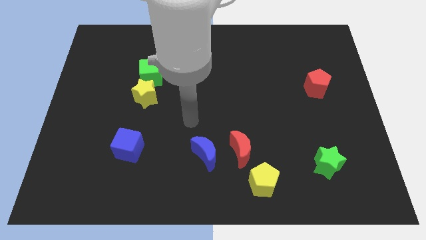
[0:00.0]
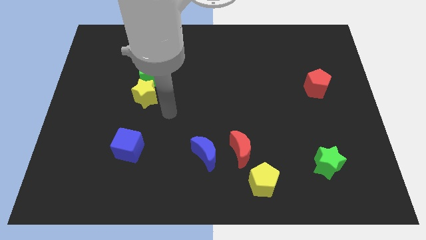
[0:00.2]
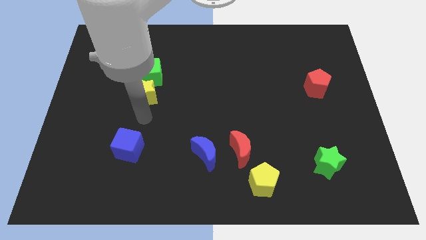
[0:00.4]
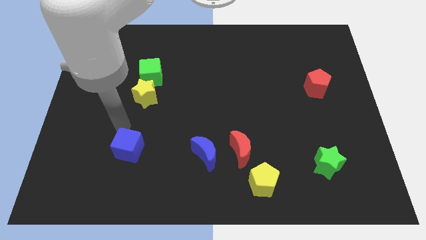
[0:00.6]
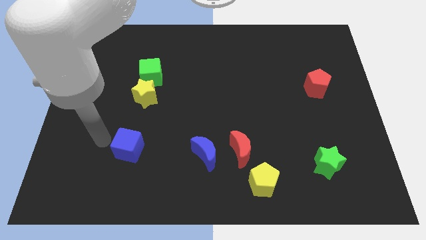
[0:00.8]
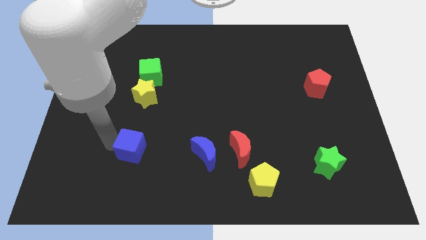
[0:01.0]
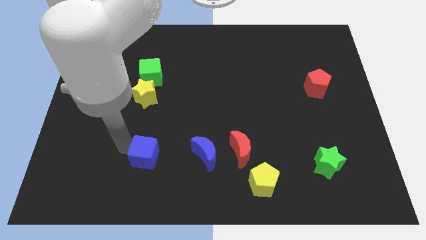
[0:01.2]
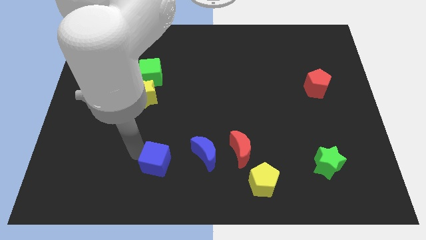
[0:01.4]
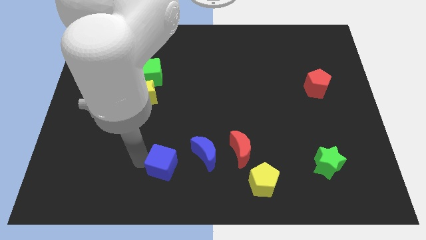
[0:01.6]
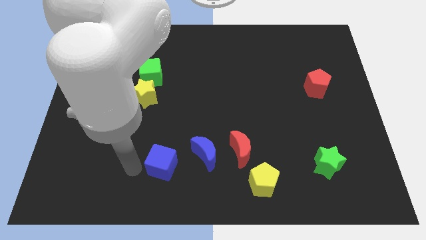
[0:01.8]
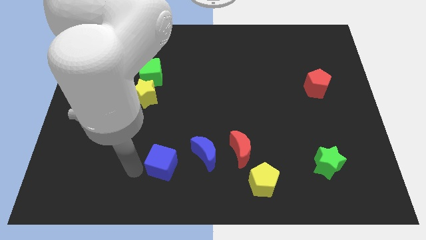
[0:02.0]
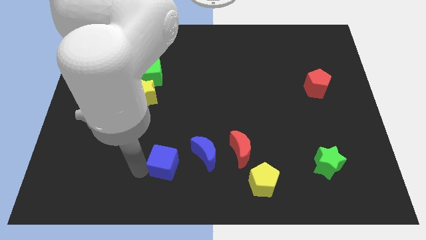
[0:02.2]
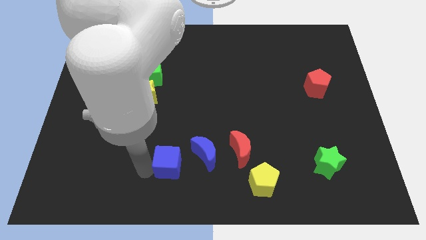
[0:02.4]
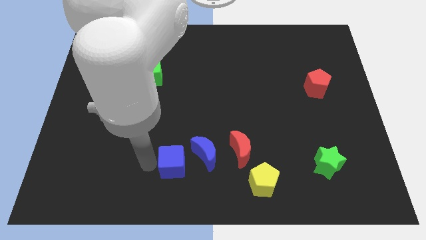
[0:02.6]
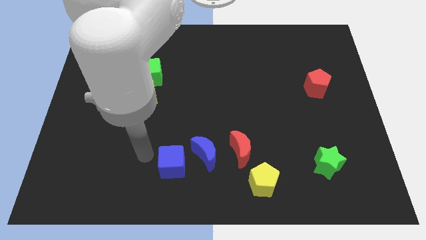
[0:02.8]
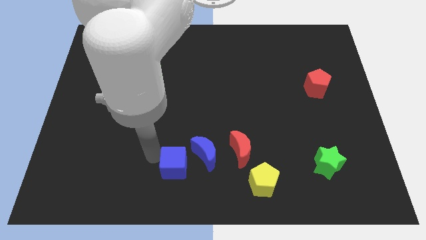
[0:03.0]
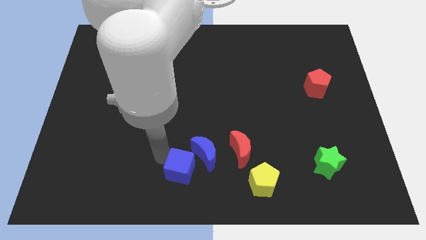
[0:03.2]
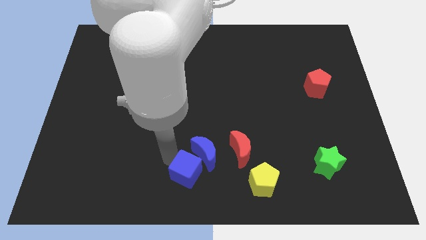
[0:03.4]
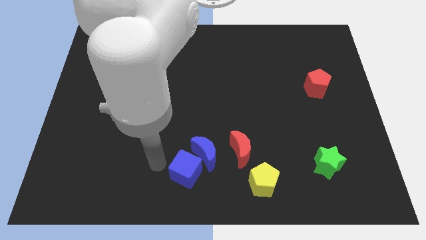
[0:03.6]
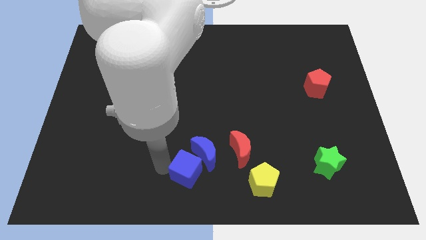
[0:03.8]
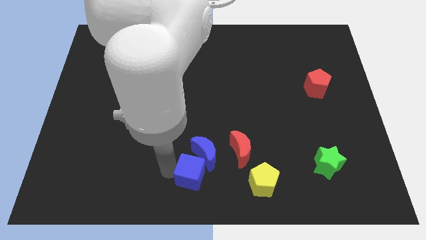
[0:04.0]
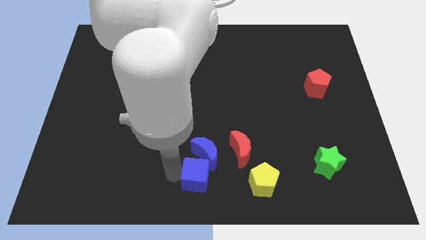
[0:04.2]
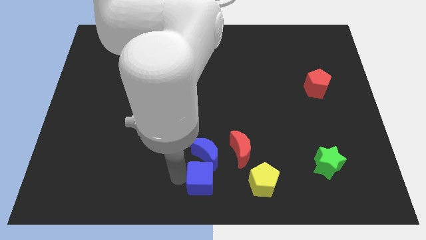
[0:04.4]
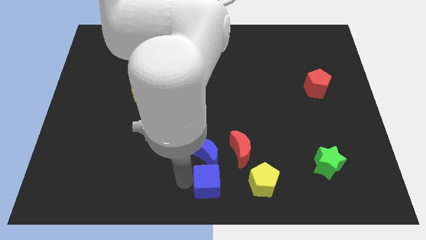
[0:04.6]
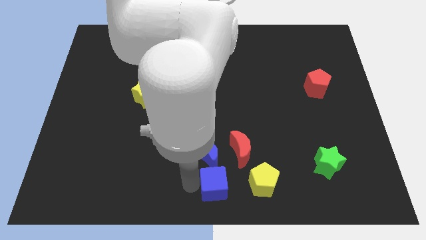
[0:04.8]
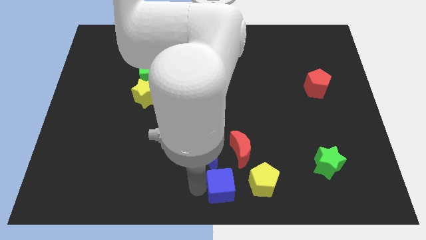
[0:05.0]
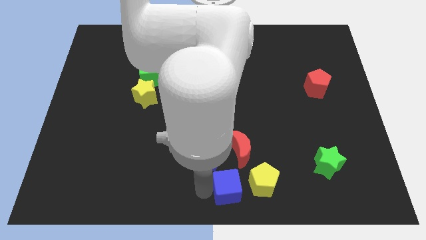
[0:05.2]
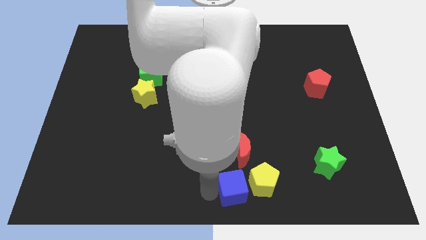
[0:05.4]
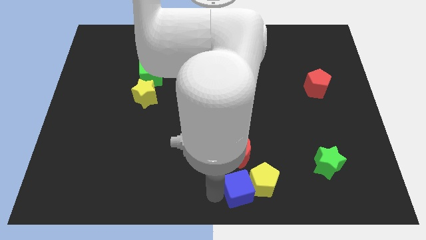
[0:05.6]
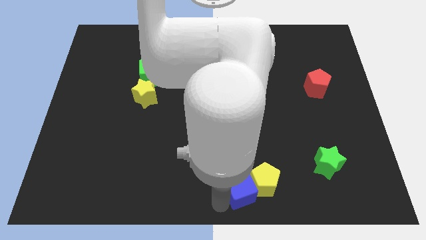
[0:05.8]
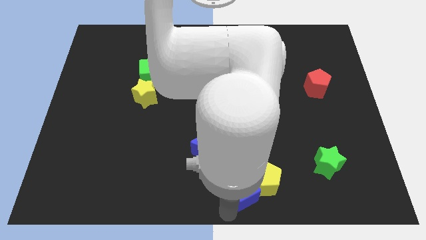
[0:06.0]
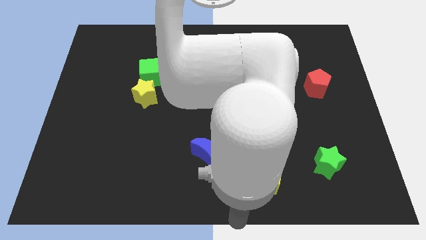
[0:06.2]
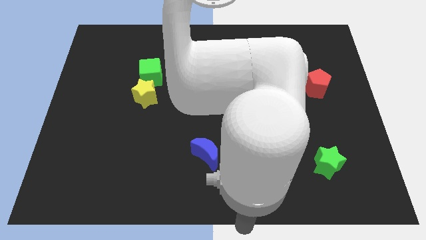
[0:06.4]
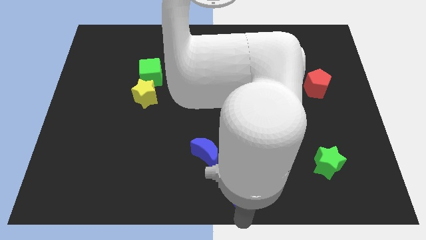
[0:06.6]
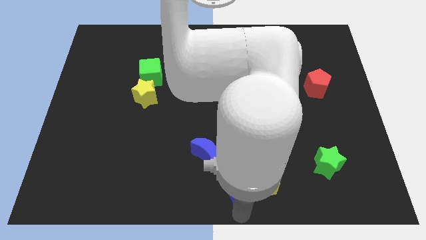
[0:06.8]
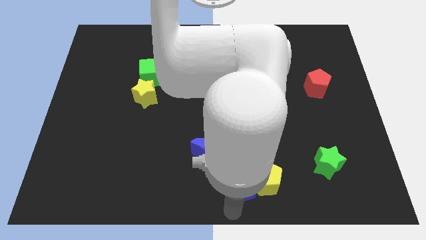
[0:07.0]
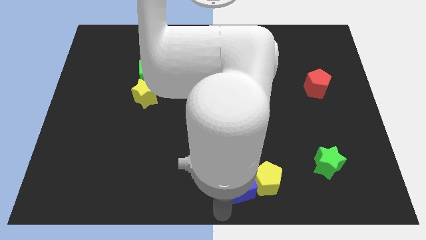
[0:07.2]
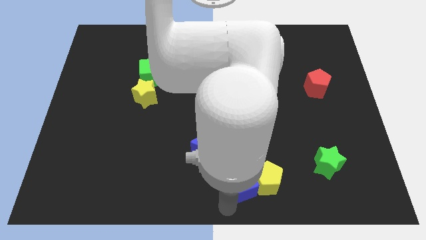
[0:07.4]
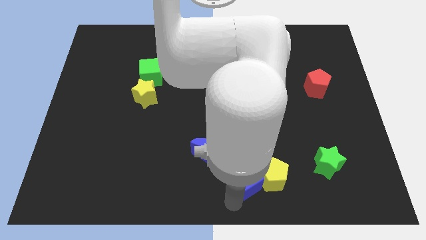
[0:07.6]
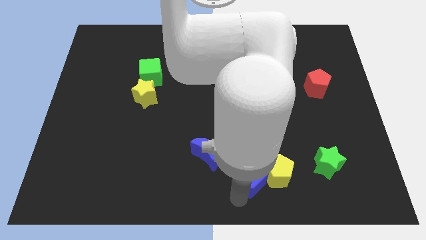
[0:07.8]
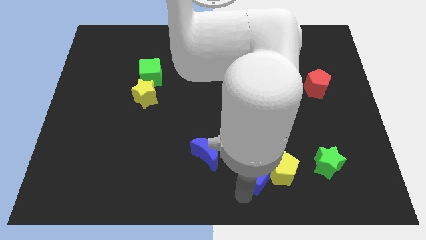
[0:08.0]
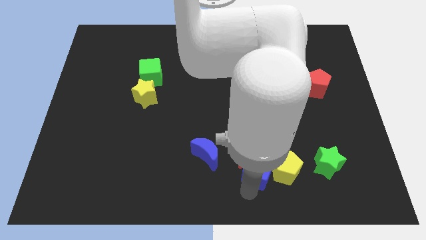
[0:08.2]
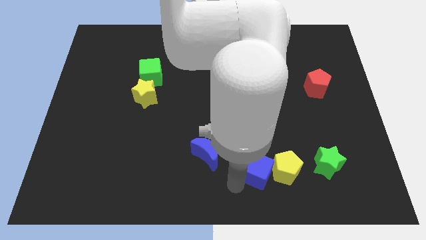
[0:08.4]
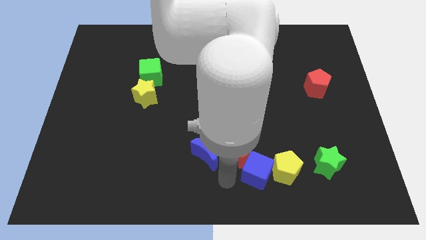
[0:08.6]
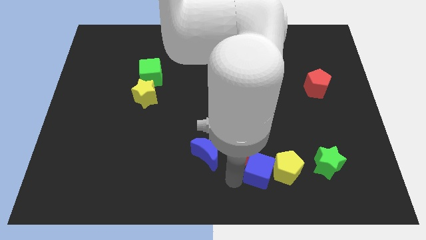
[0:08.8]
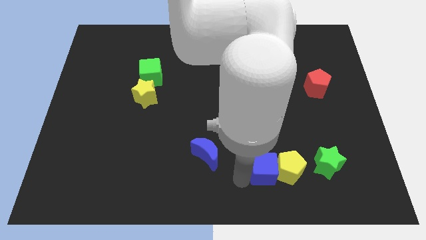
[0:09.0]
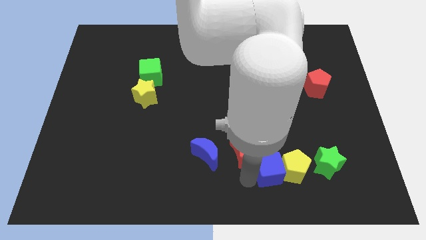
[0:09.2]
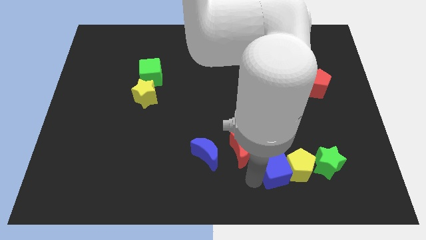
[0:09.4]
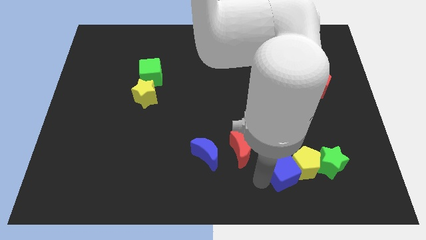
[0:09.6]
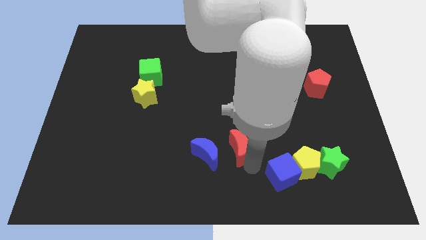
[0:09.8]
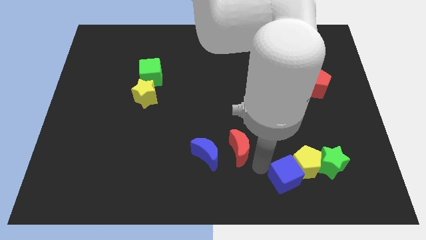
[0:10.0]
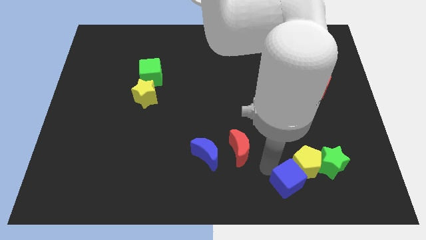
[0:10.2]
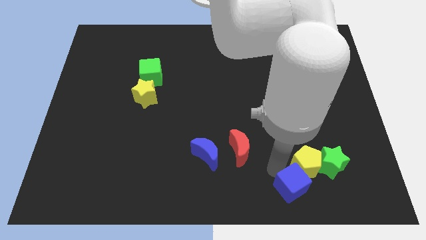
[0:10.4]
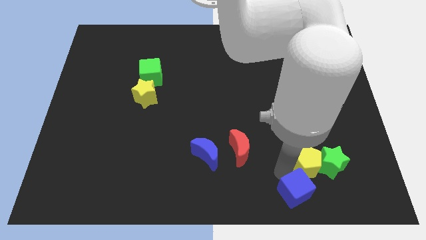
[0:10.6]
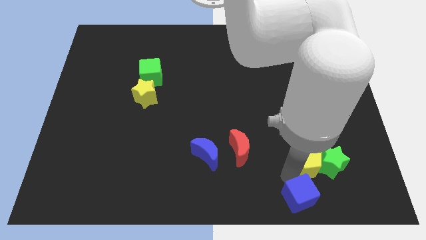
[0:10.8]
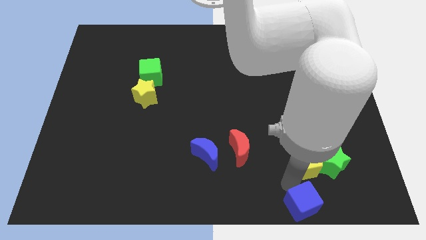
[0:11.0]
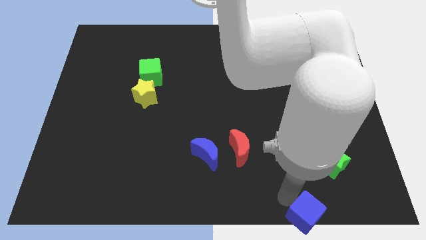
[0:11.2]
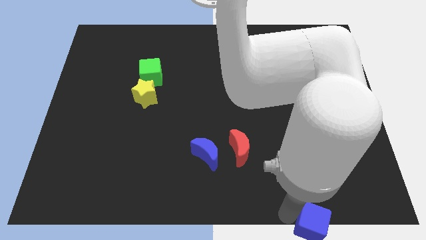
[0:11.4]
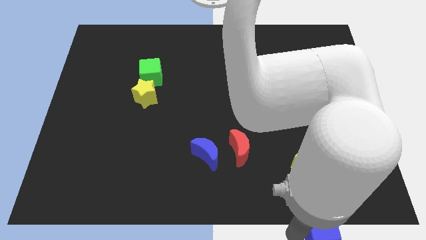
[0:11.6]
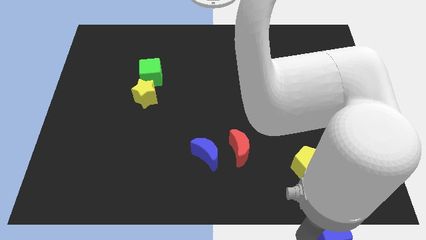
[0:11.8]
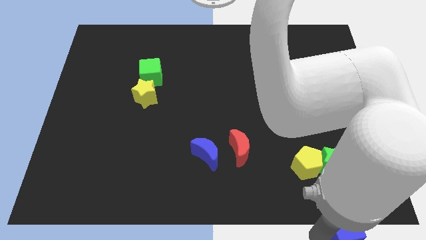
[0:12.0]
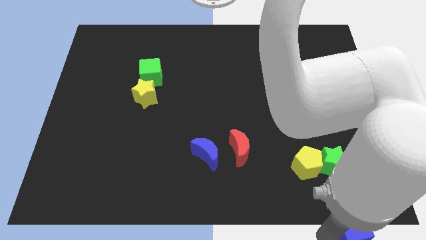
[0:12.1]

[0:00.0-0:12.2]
move the blue cube to the bottom right of the board
